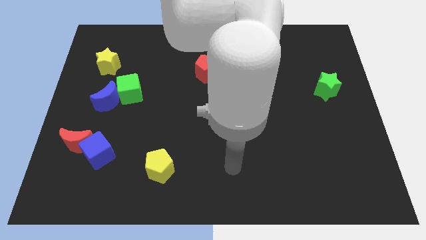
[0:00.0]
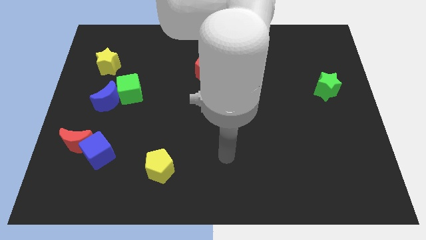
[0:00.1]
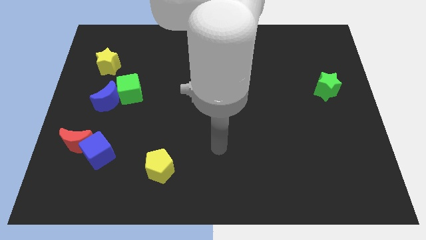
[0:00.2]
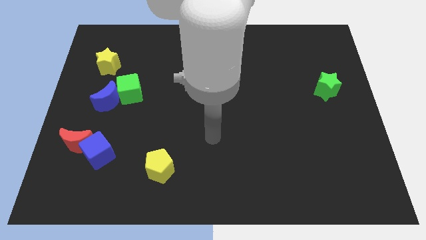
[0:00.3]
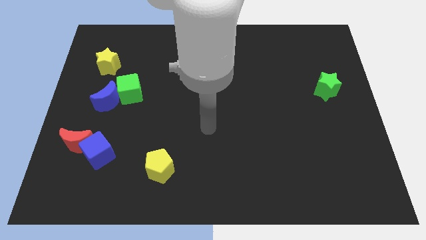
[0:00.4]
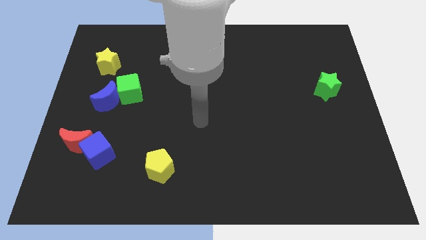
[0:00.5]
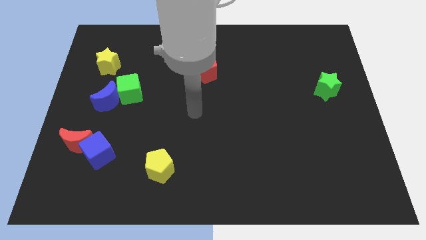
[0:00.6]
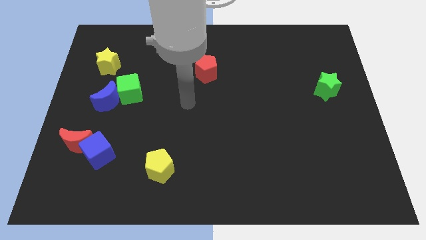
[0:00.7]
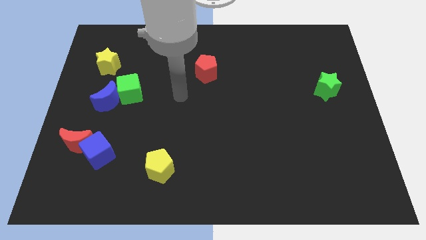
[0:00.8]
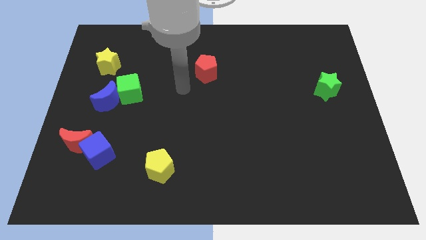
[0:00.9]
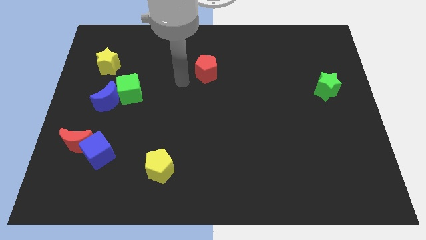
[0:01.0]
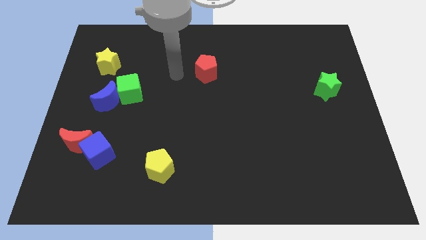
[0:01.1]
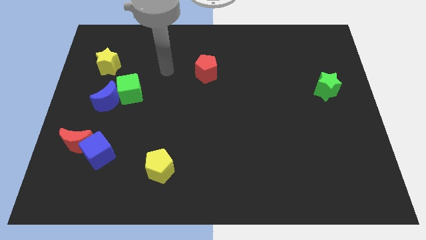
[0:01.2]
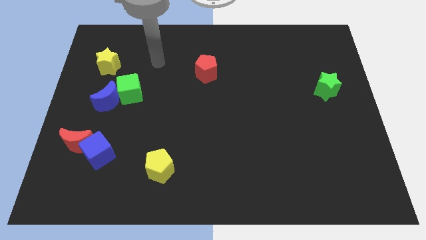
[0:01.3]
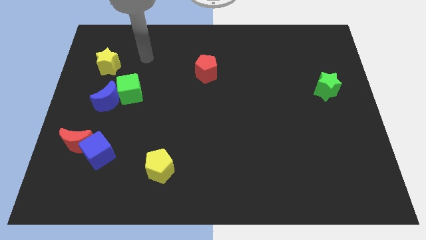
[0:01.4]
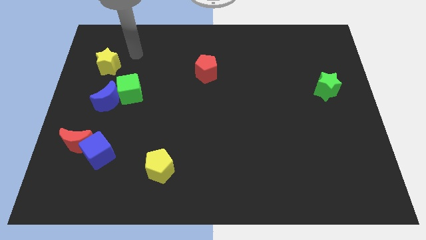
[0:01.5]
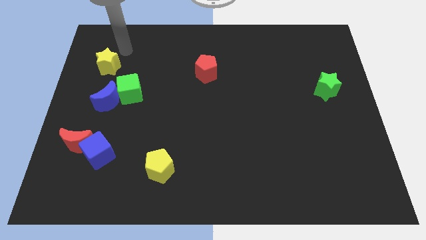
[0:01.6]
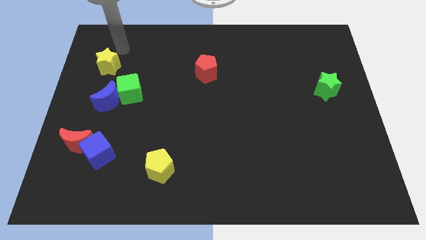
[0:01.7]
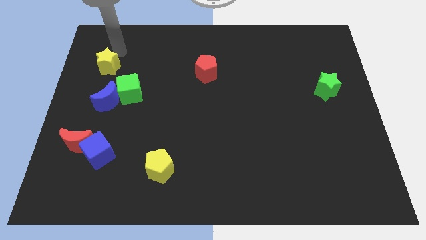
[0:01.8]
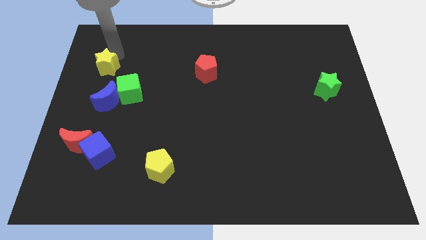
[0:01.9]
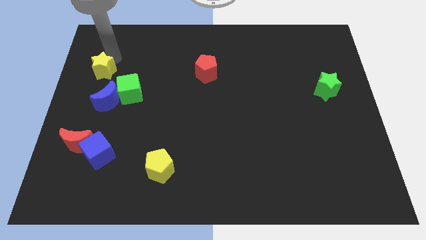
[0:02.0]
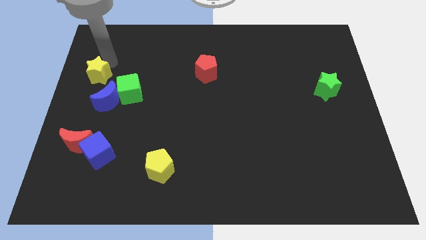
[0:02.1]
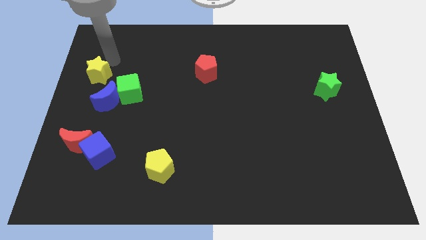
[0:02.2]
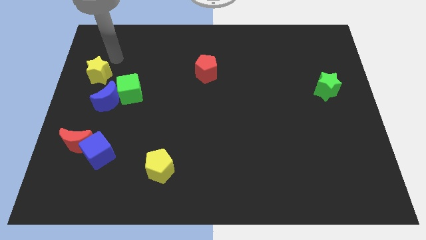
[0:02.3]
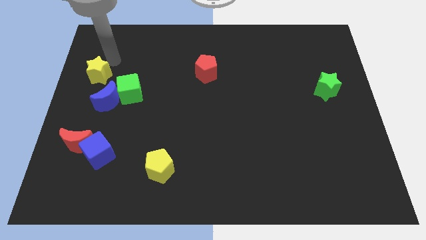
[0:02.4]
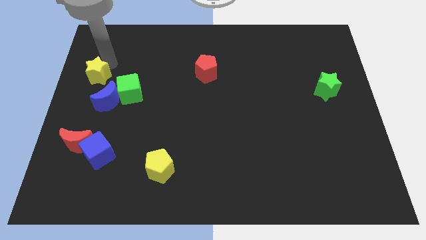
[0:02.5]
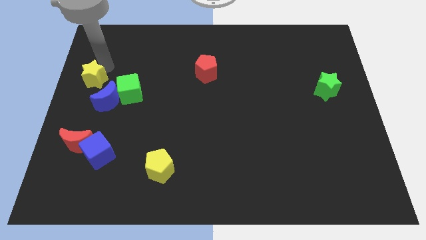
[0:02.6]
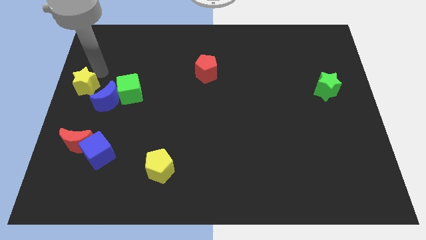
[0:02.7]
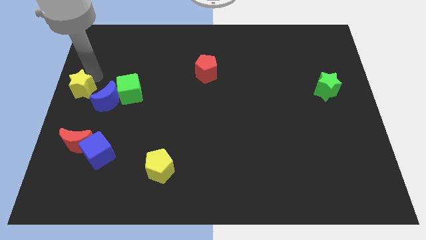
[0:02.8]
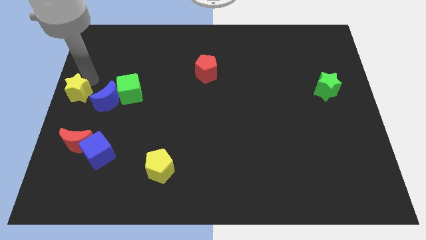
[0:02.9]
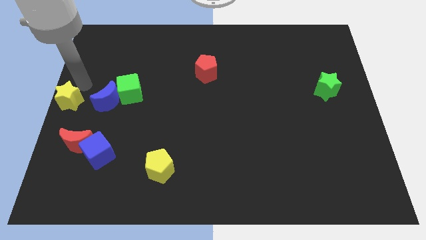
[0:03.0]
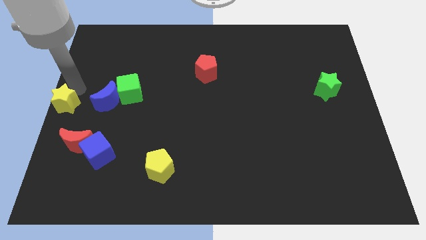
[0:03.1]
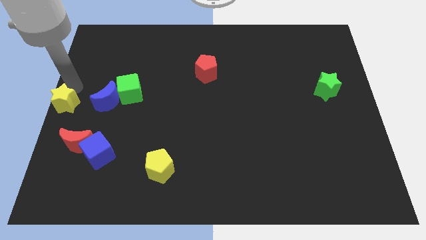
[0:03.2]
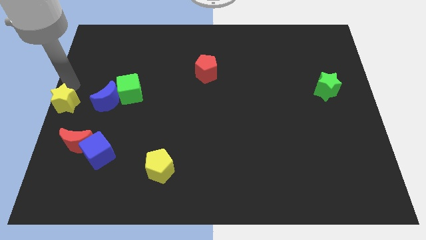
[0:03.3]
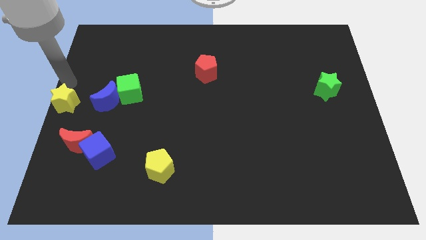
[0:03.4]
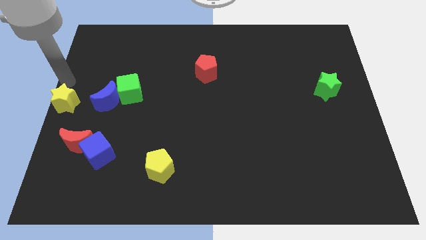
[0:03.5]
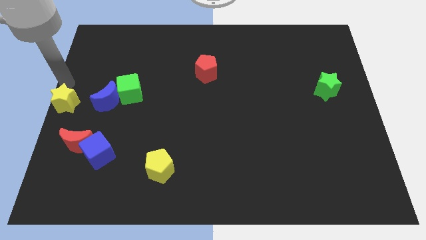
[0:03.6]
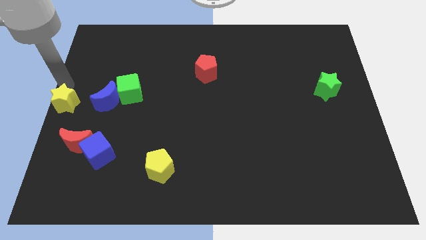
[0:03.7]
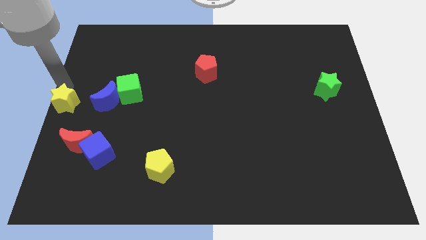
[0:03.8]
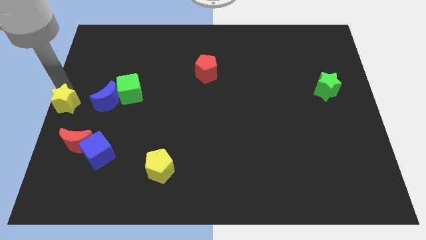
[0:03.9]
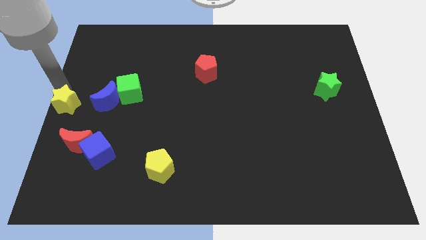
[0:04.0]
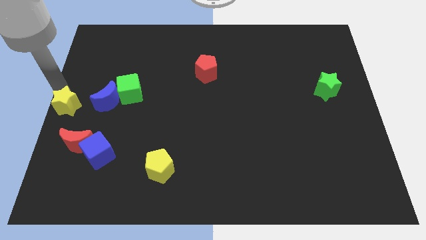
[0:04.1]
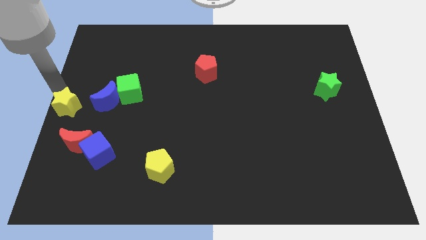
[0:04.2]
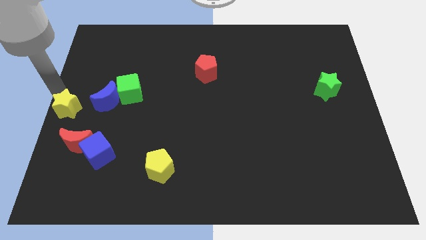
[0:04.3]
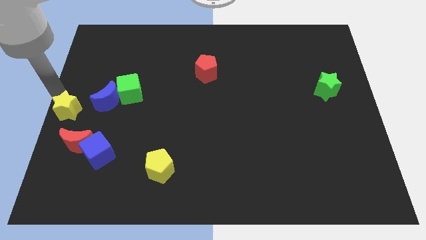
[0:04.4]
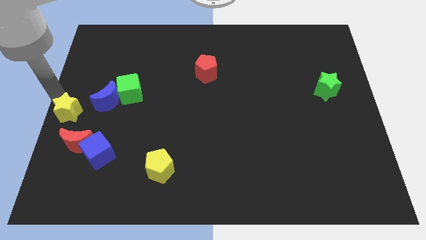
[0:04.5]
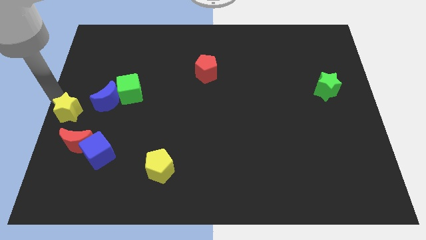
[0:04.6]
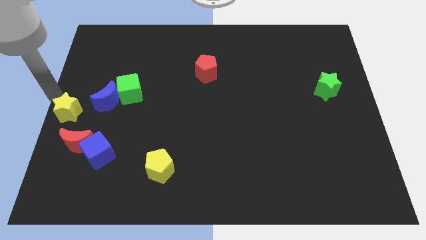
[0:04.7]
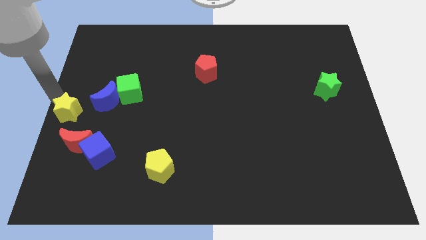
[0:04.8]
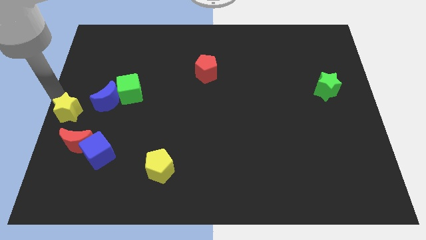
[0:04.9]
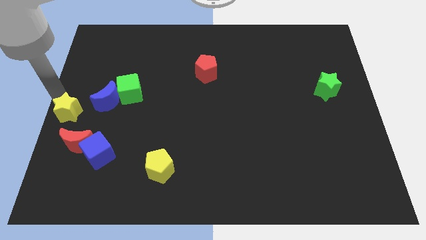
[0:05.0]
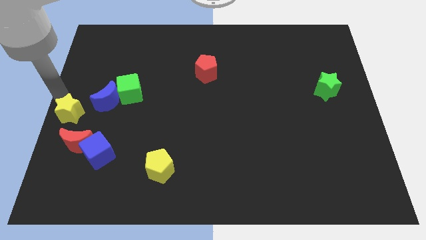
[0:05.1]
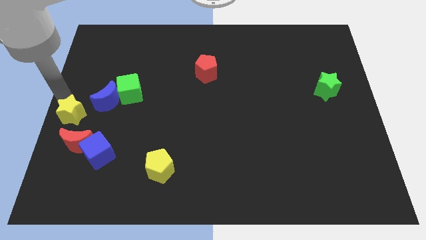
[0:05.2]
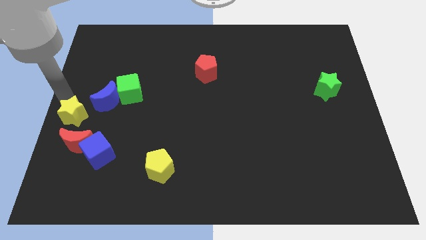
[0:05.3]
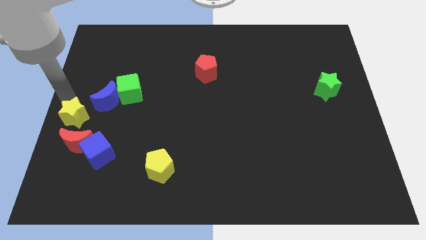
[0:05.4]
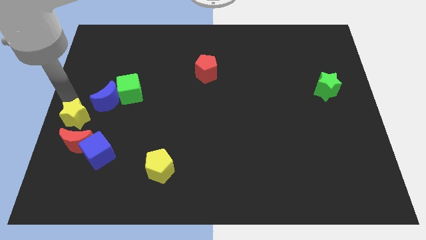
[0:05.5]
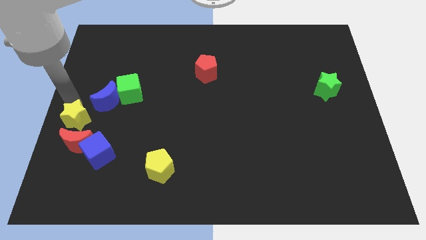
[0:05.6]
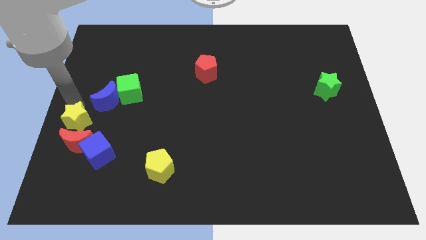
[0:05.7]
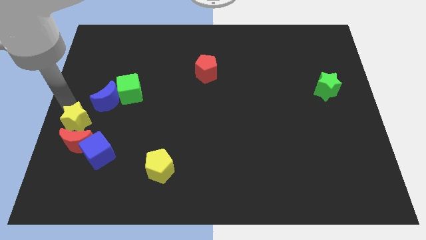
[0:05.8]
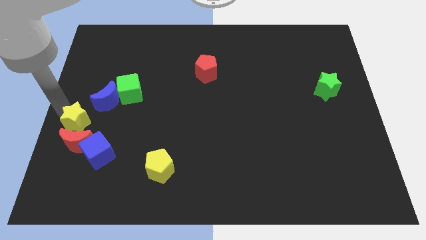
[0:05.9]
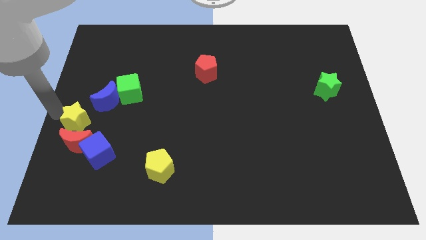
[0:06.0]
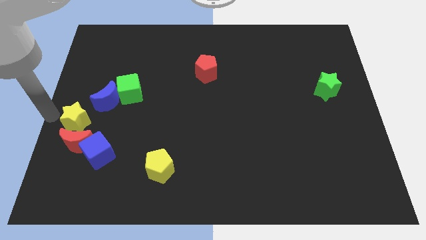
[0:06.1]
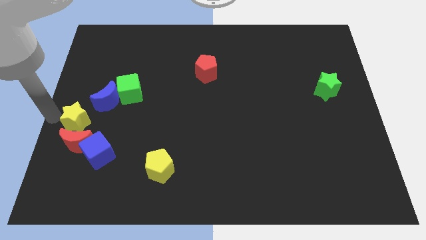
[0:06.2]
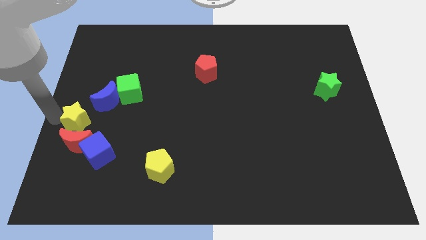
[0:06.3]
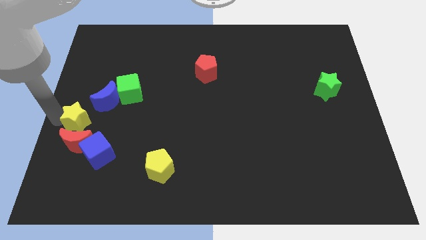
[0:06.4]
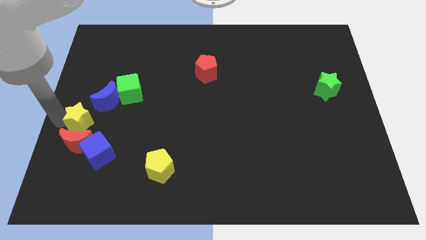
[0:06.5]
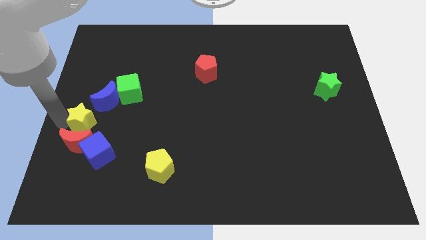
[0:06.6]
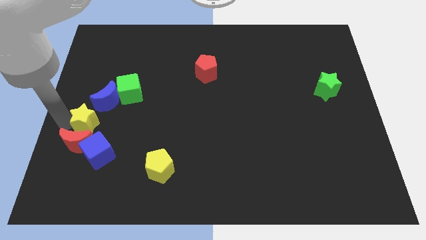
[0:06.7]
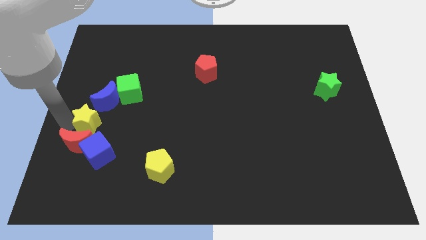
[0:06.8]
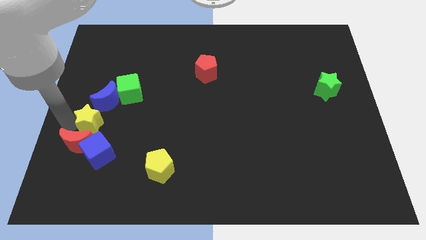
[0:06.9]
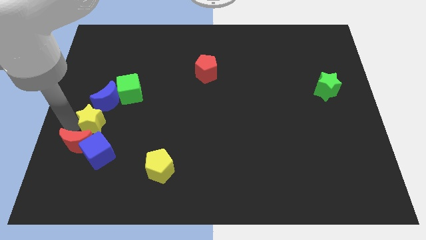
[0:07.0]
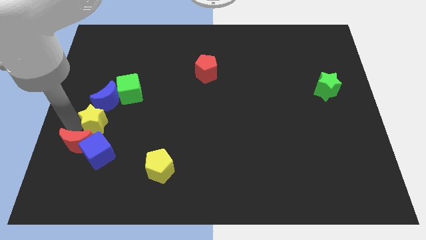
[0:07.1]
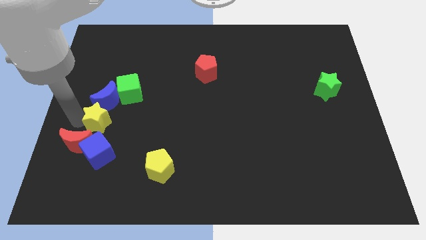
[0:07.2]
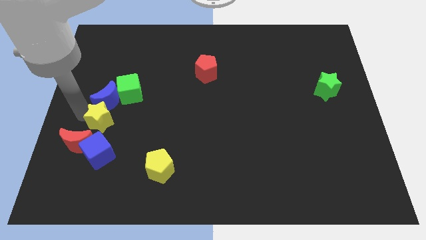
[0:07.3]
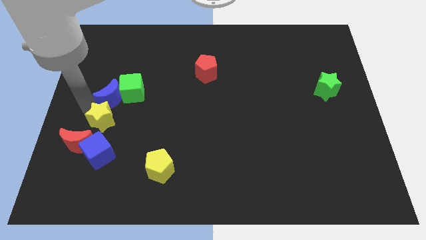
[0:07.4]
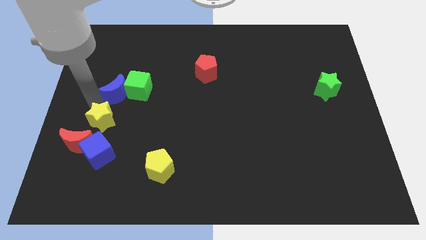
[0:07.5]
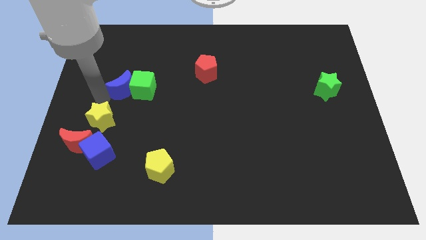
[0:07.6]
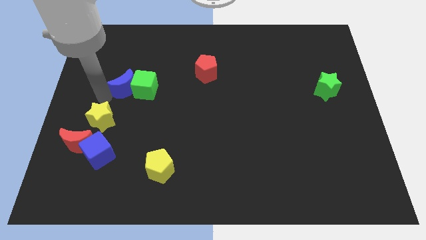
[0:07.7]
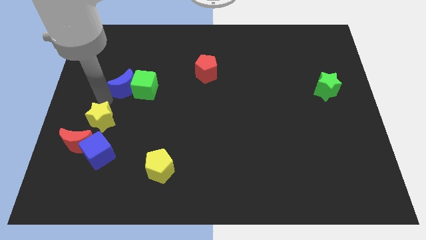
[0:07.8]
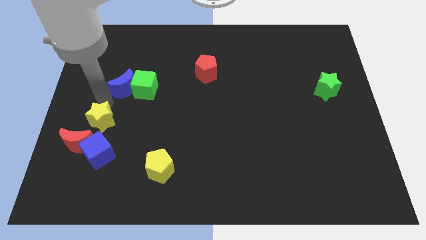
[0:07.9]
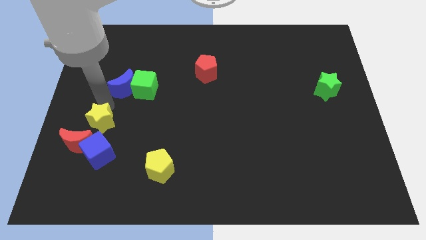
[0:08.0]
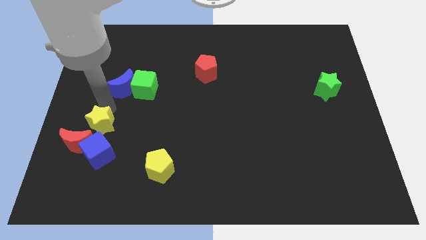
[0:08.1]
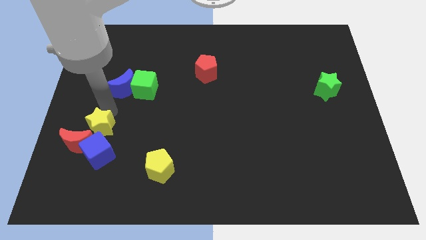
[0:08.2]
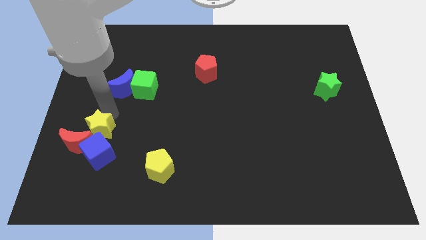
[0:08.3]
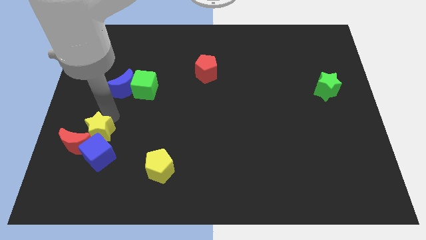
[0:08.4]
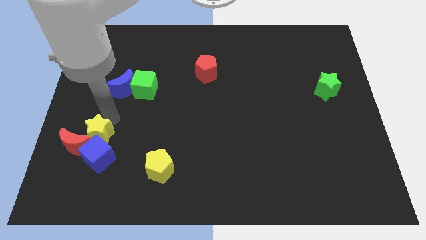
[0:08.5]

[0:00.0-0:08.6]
slide the yellow star to the blue cube
